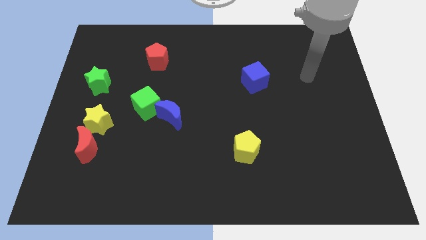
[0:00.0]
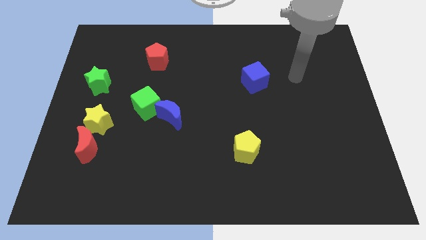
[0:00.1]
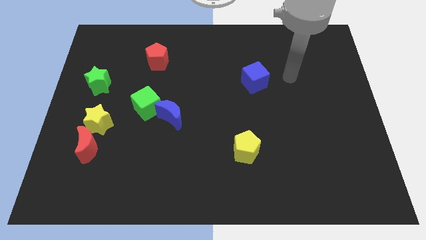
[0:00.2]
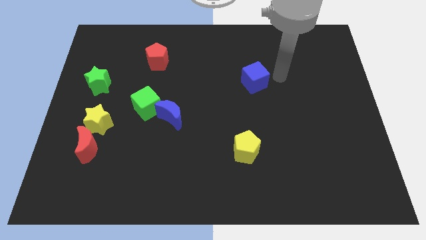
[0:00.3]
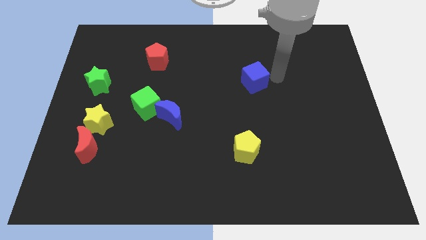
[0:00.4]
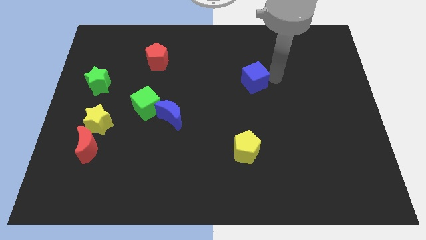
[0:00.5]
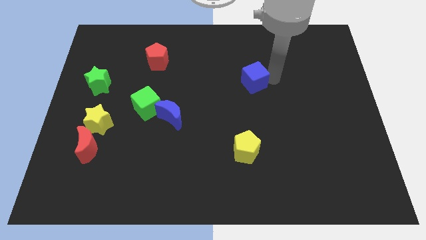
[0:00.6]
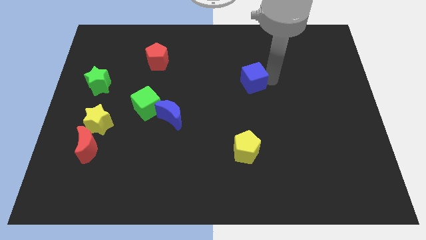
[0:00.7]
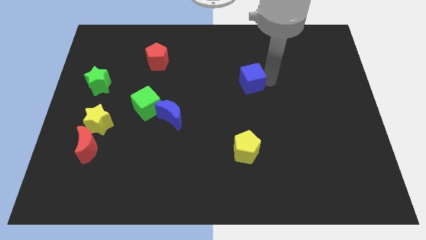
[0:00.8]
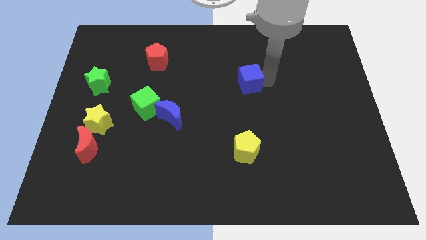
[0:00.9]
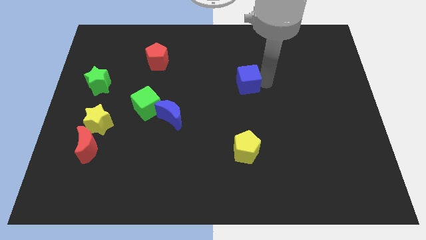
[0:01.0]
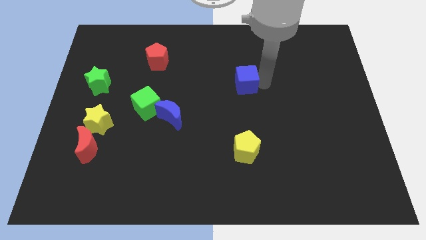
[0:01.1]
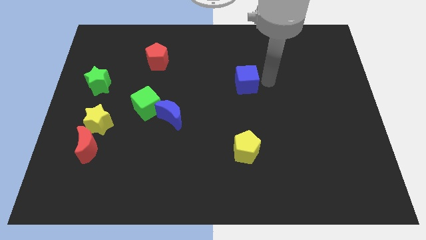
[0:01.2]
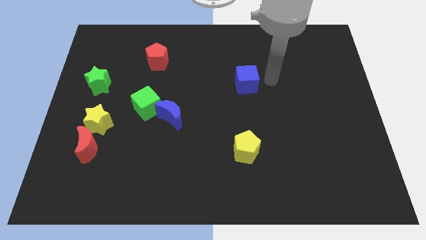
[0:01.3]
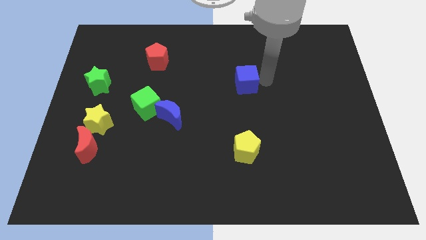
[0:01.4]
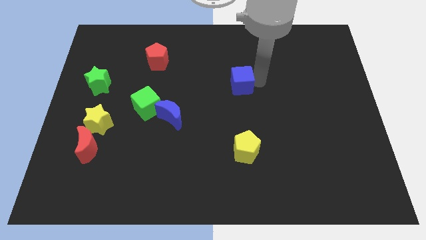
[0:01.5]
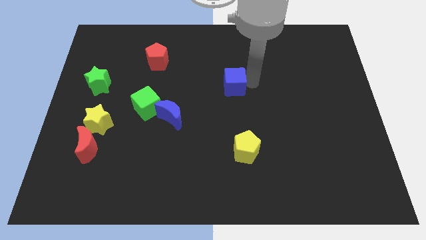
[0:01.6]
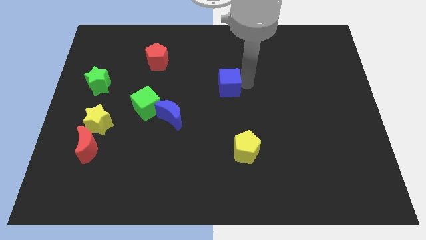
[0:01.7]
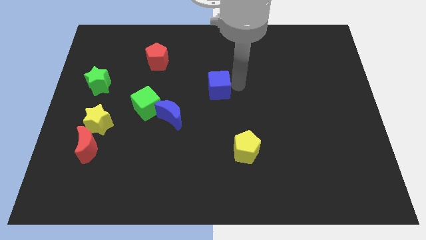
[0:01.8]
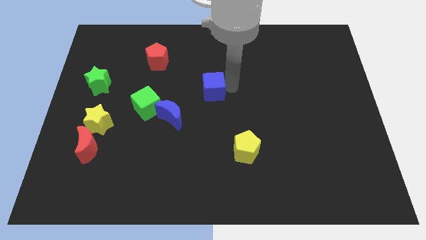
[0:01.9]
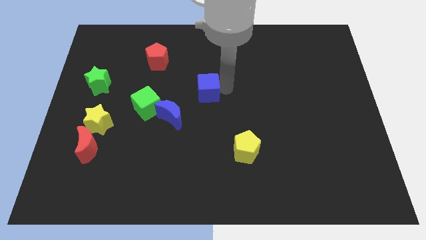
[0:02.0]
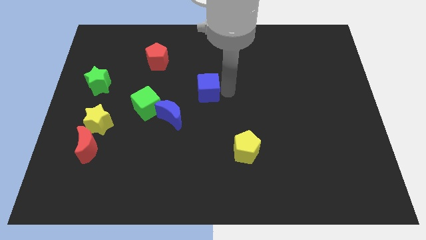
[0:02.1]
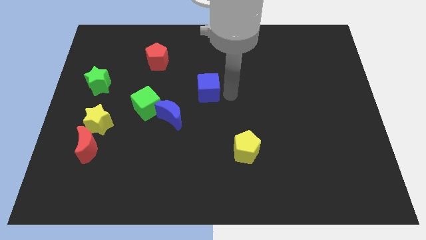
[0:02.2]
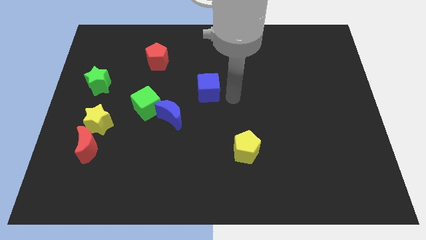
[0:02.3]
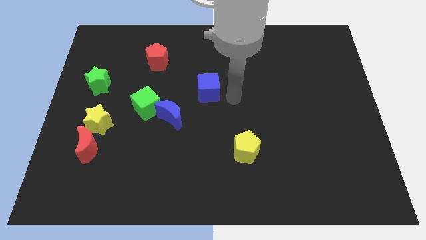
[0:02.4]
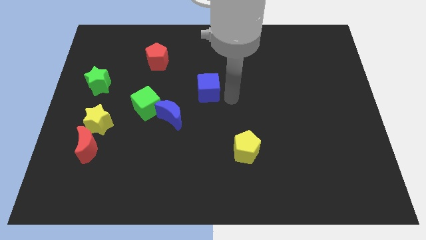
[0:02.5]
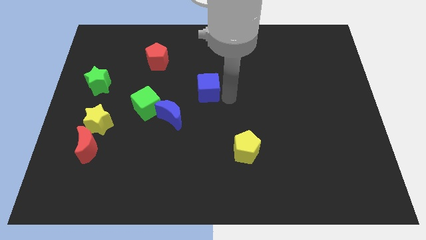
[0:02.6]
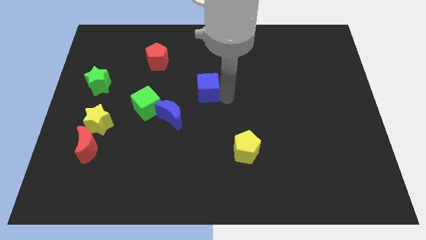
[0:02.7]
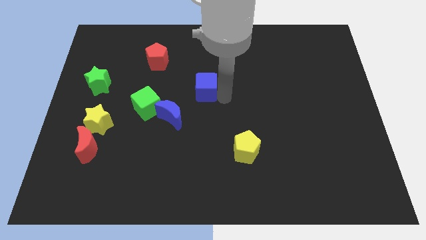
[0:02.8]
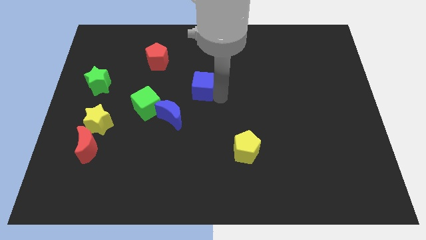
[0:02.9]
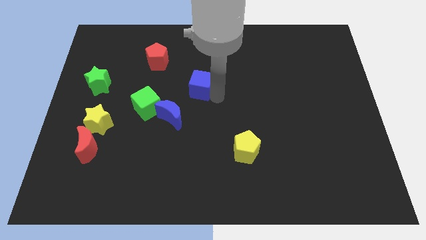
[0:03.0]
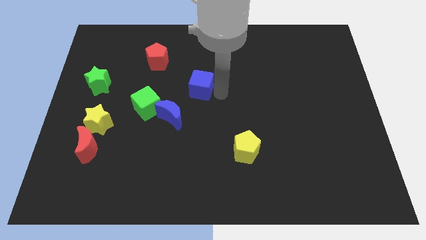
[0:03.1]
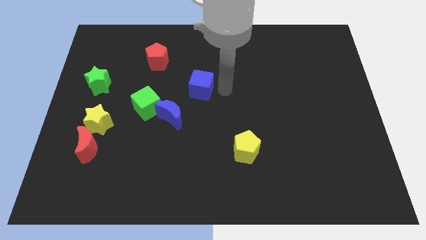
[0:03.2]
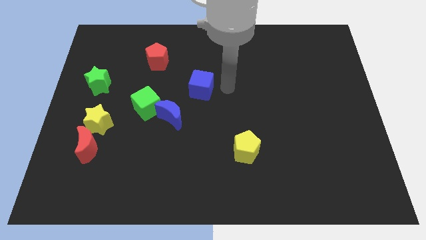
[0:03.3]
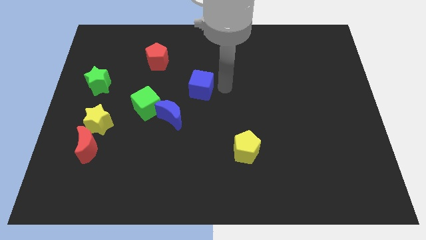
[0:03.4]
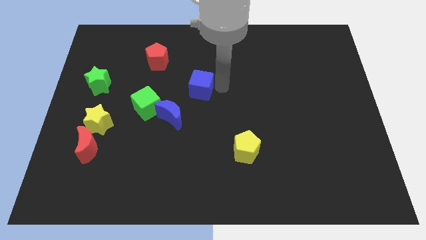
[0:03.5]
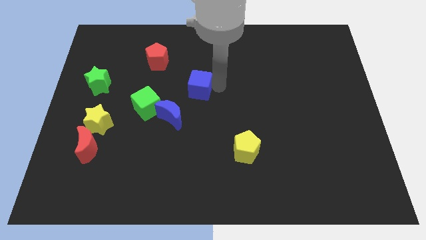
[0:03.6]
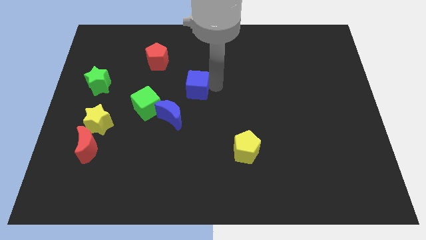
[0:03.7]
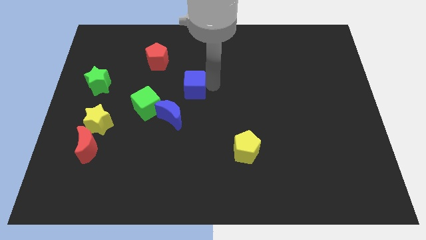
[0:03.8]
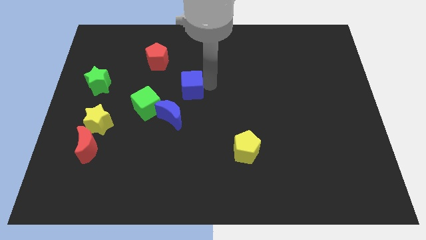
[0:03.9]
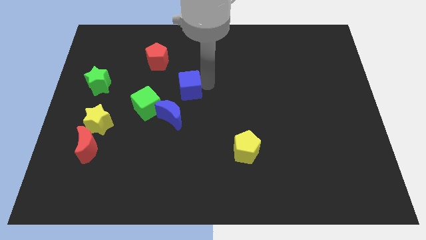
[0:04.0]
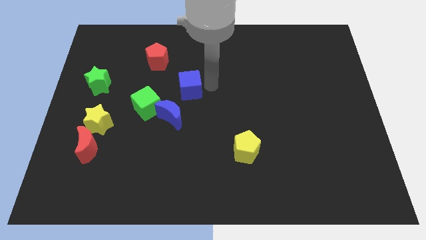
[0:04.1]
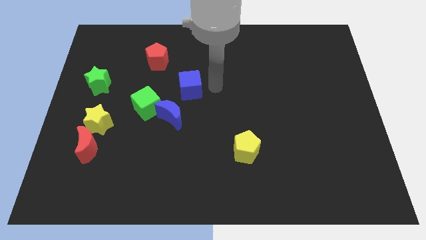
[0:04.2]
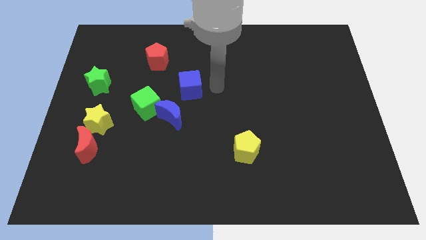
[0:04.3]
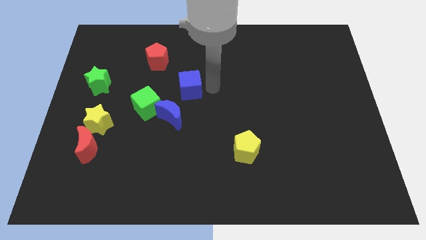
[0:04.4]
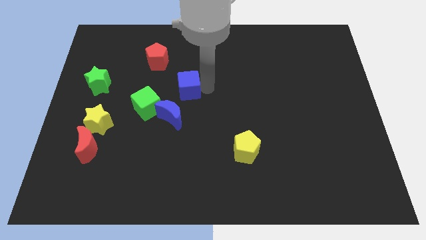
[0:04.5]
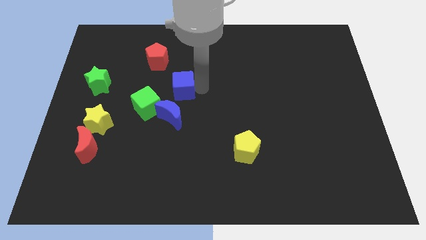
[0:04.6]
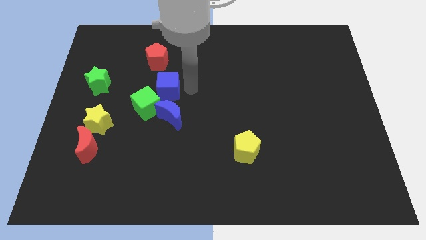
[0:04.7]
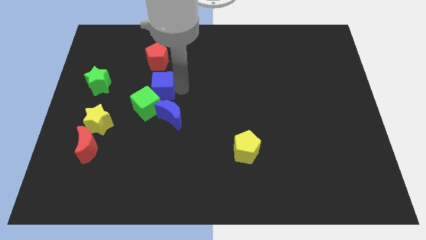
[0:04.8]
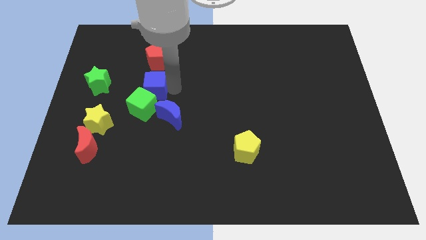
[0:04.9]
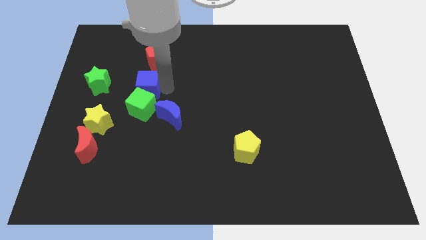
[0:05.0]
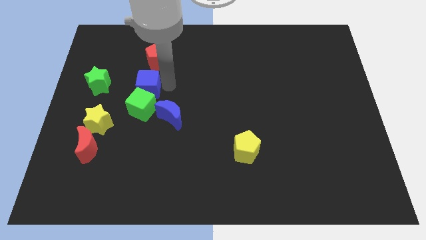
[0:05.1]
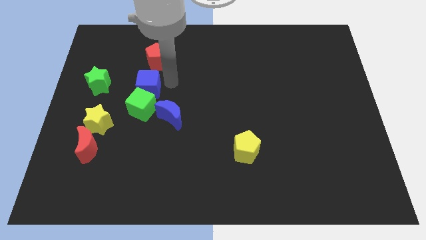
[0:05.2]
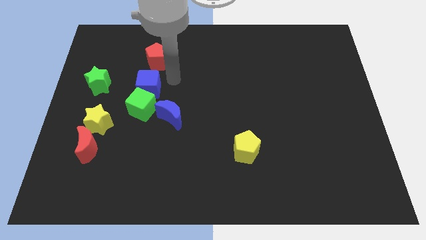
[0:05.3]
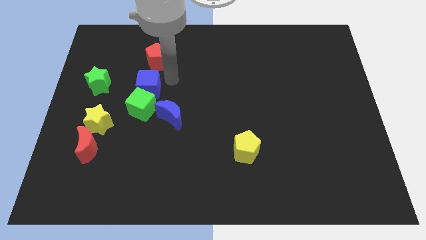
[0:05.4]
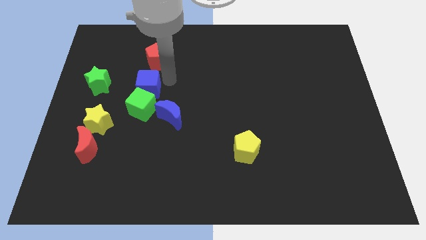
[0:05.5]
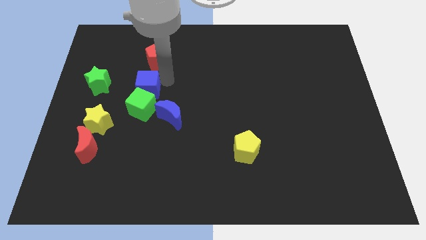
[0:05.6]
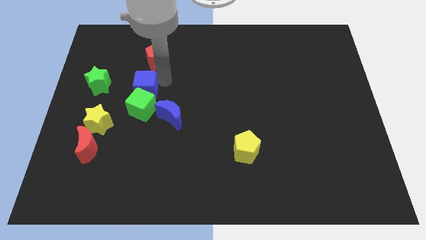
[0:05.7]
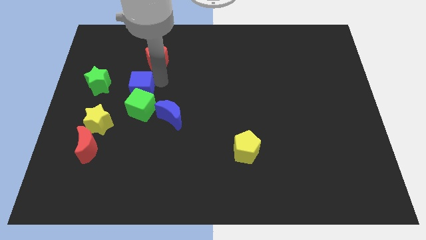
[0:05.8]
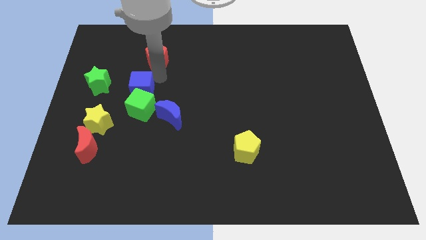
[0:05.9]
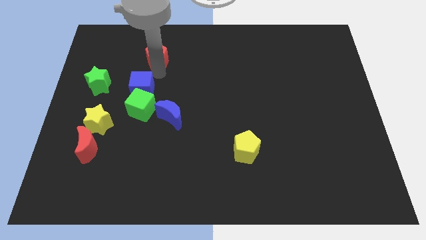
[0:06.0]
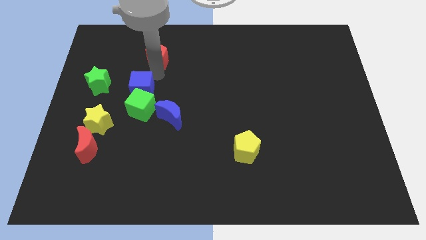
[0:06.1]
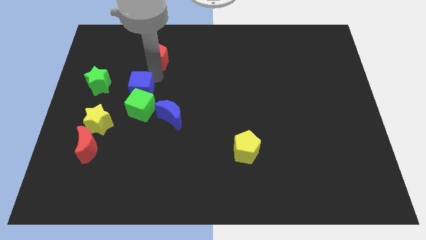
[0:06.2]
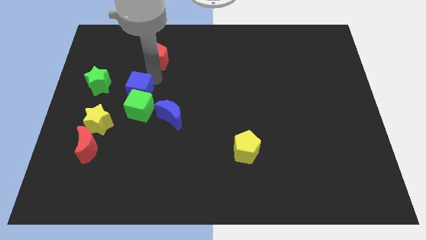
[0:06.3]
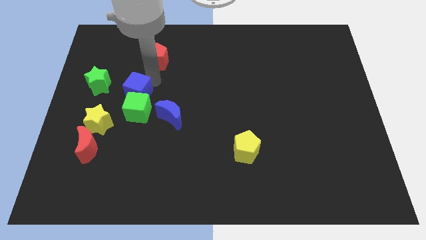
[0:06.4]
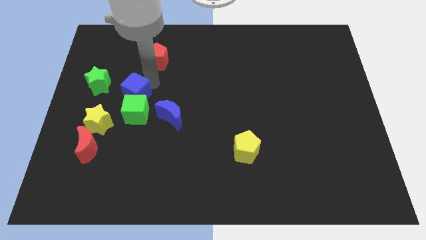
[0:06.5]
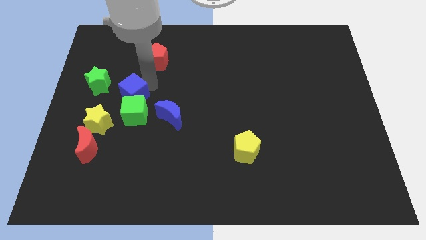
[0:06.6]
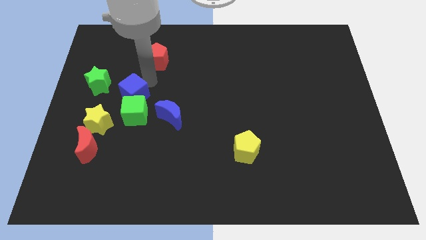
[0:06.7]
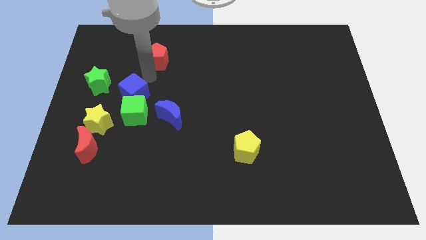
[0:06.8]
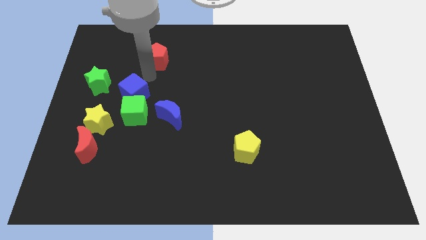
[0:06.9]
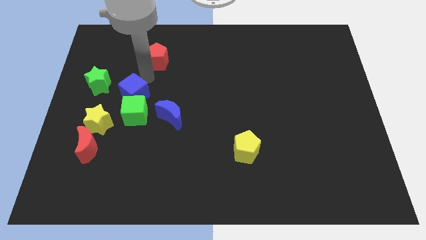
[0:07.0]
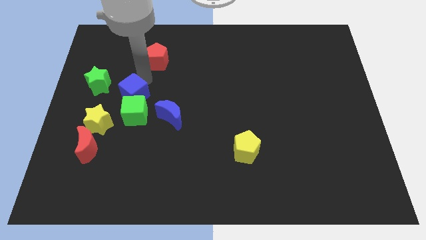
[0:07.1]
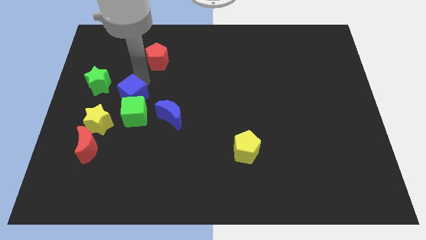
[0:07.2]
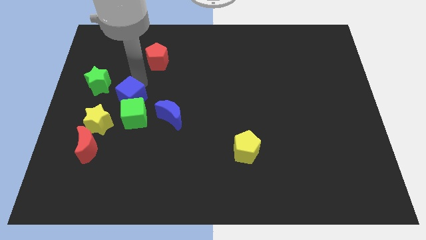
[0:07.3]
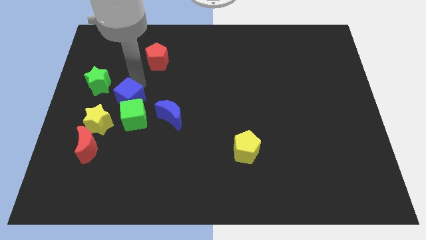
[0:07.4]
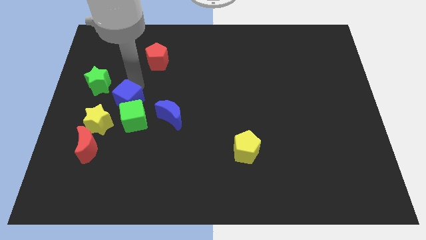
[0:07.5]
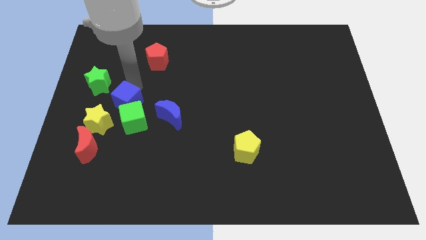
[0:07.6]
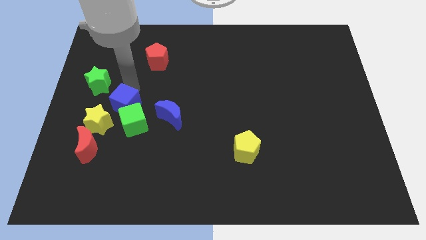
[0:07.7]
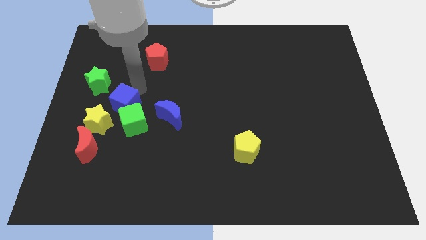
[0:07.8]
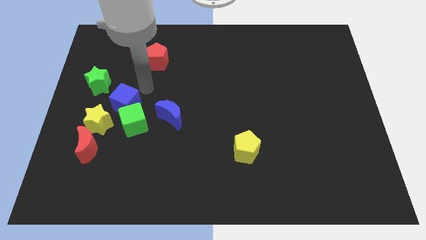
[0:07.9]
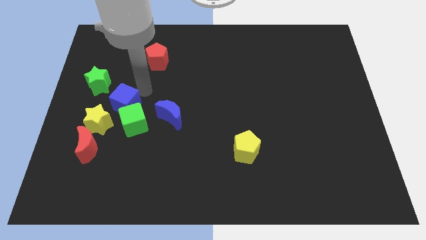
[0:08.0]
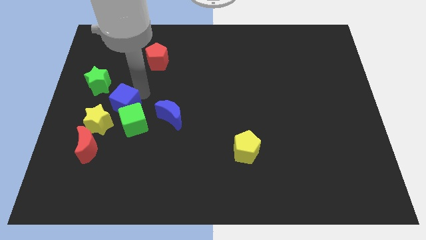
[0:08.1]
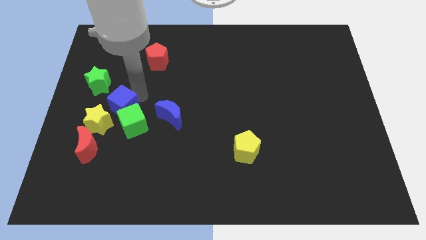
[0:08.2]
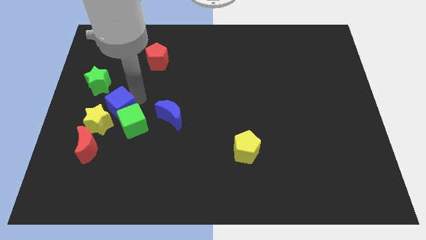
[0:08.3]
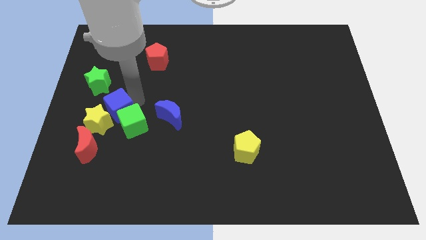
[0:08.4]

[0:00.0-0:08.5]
push the blue cube to the yellow star
